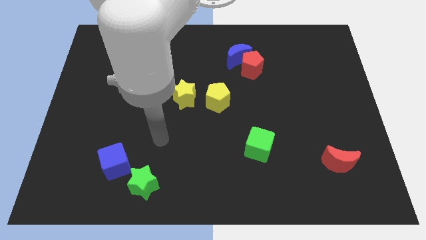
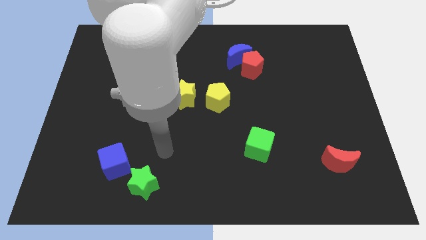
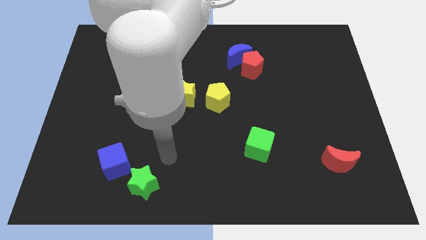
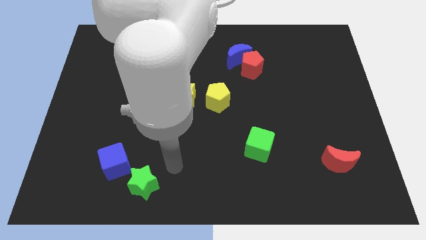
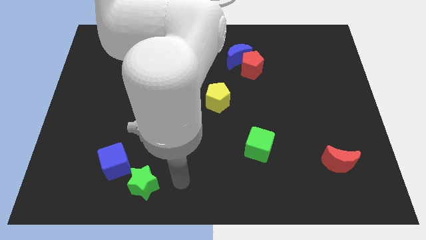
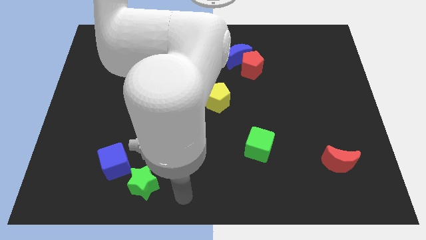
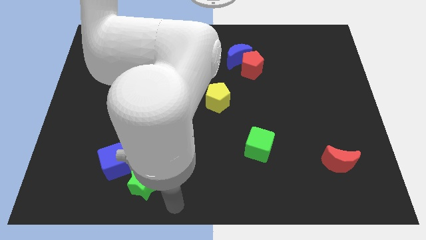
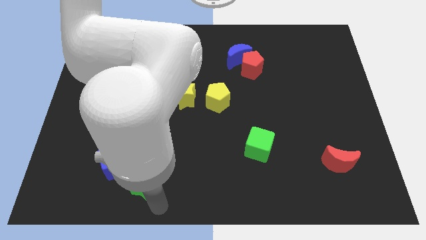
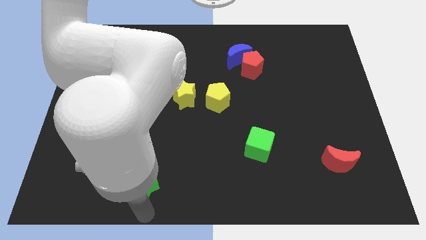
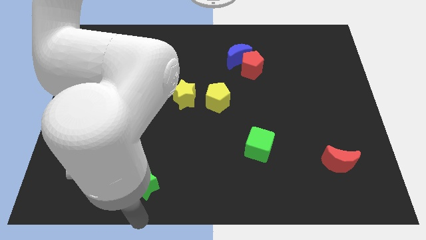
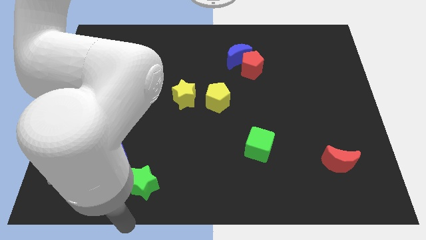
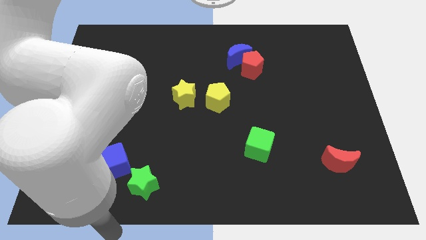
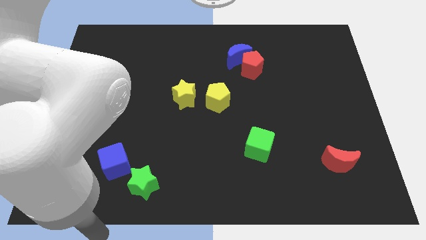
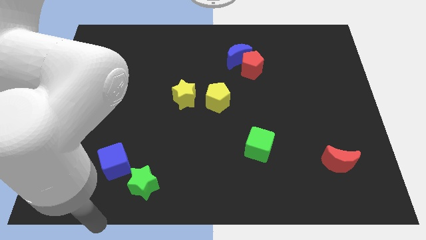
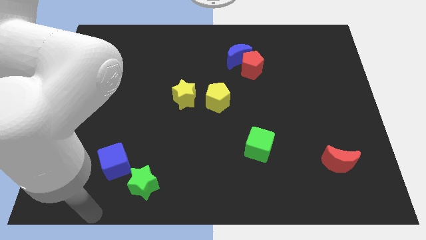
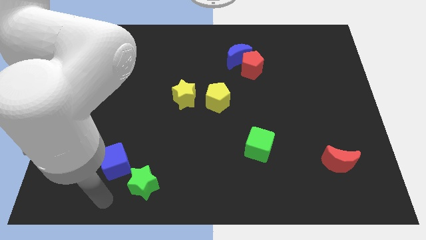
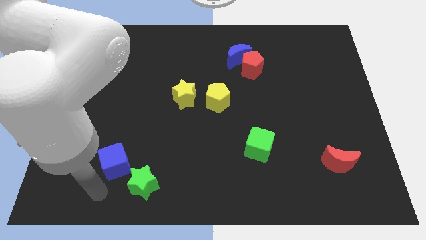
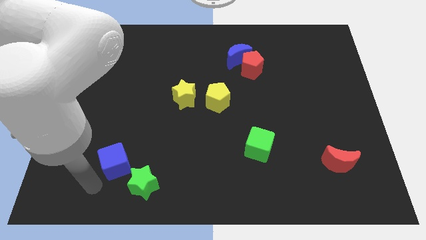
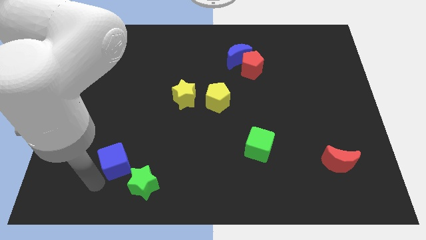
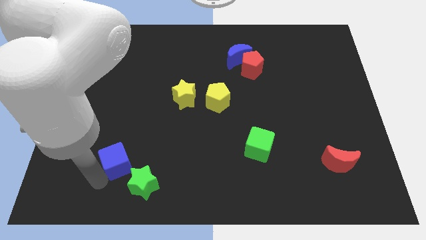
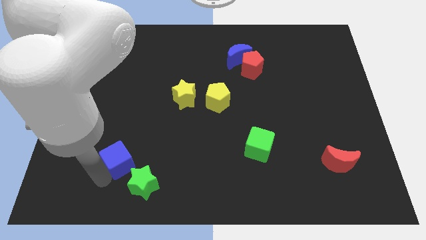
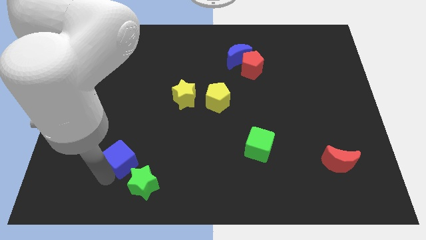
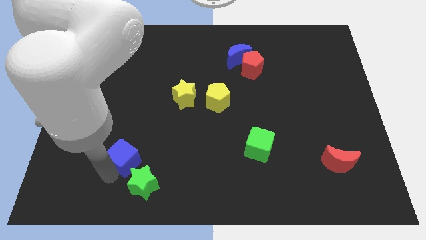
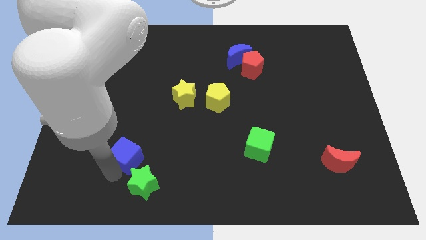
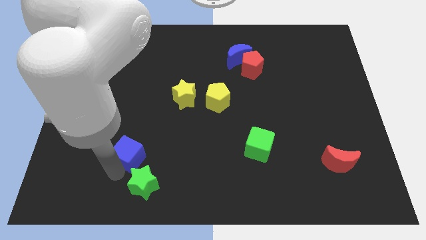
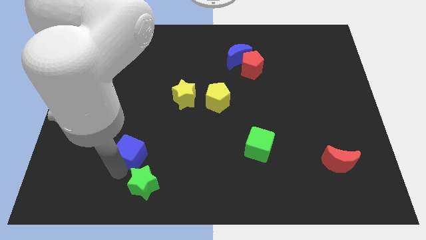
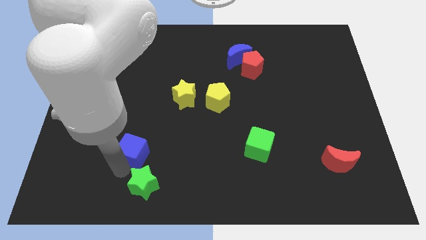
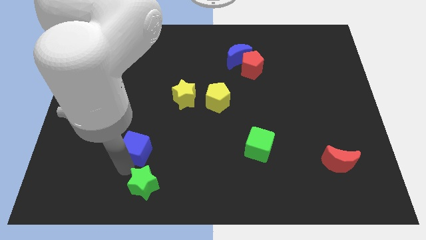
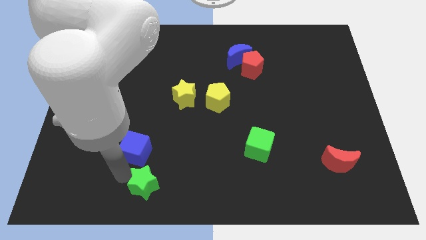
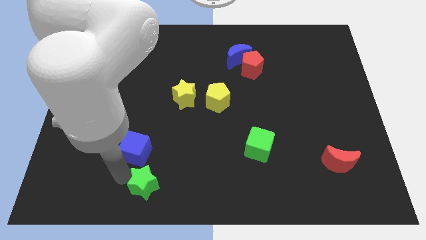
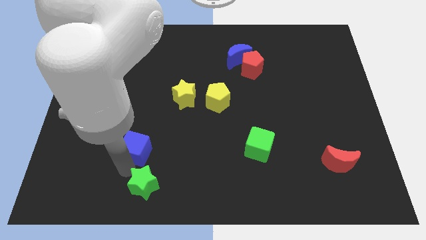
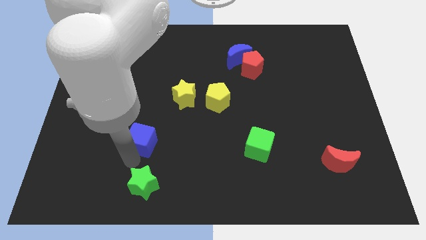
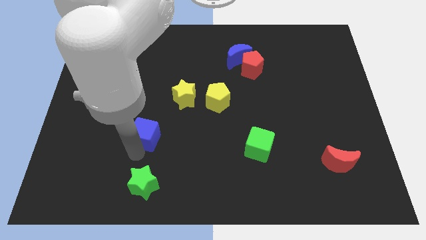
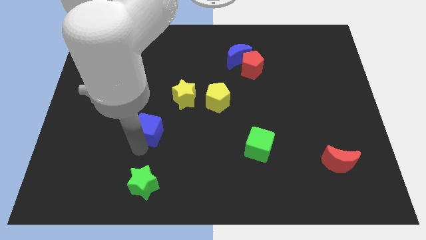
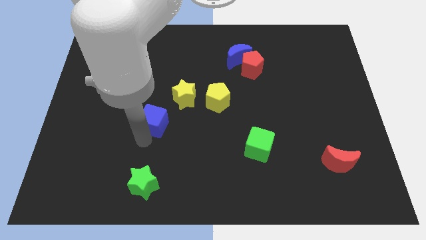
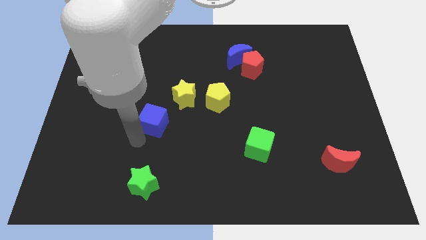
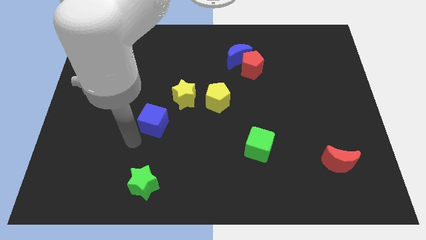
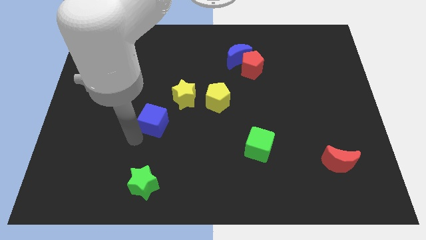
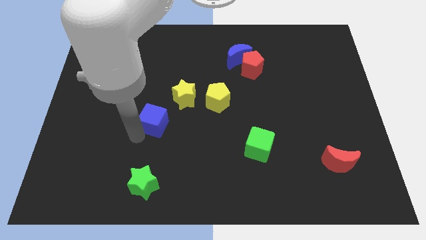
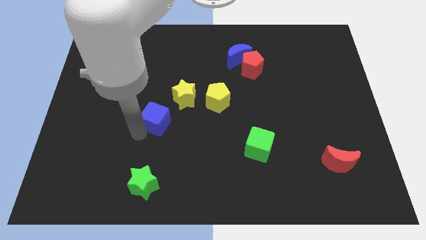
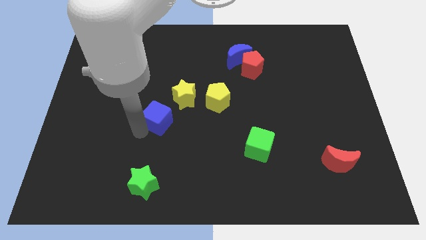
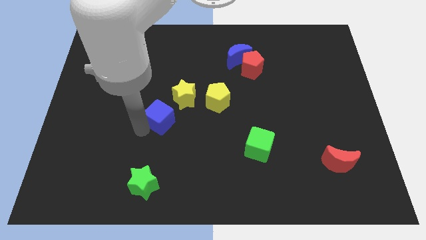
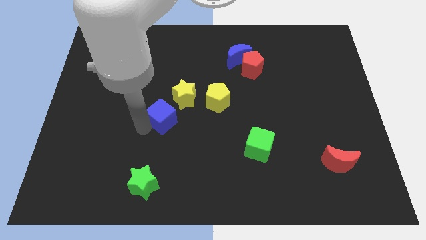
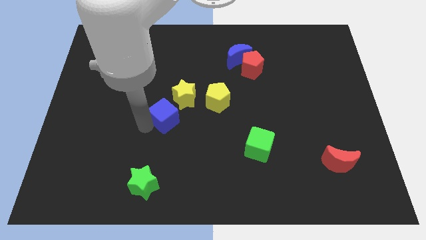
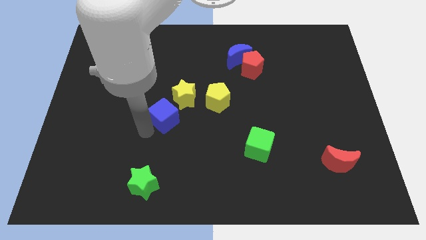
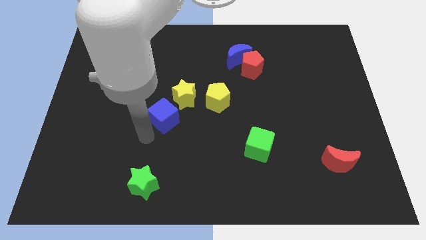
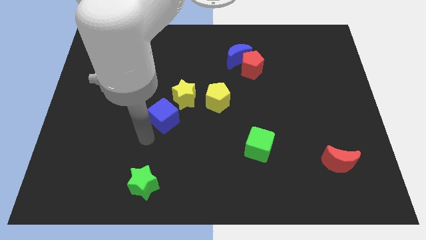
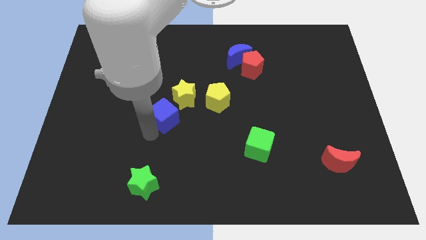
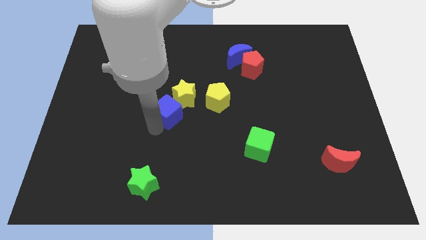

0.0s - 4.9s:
move the blue cube towards the yellow star

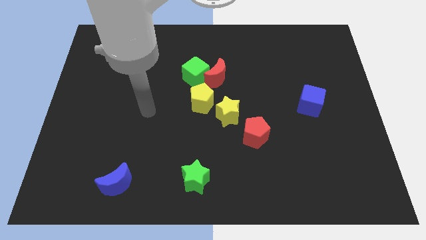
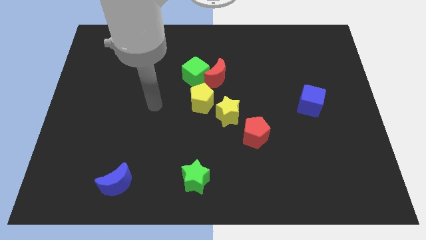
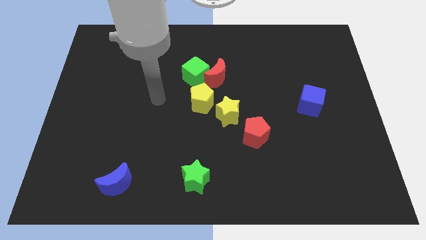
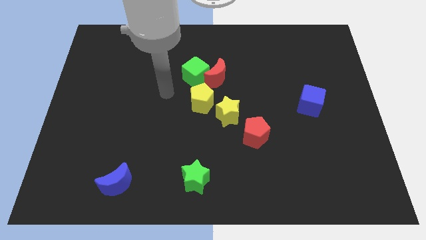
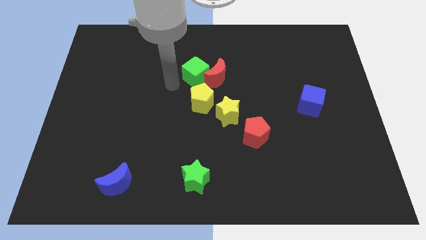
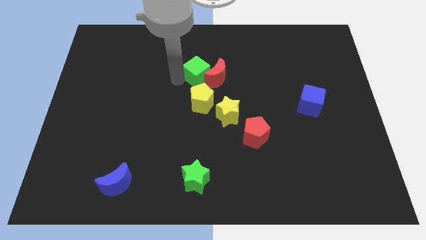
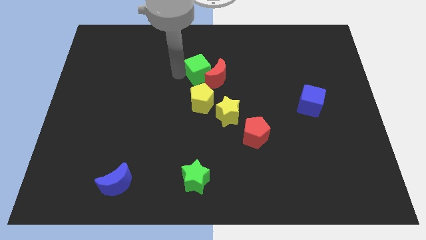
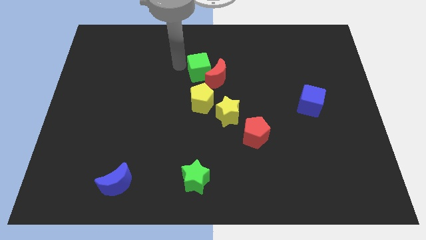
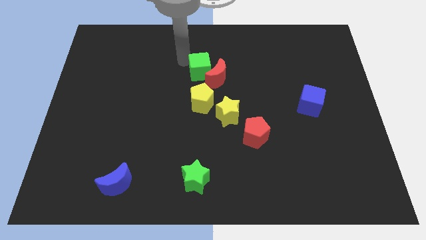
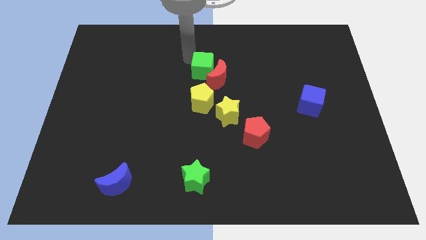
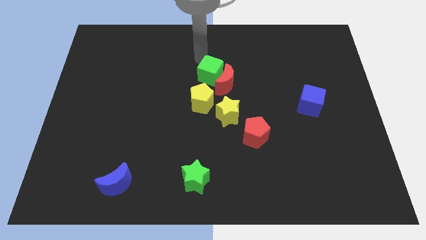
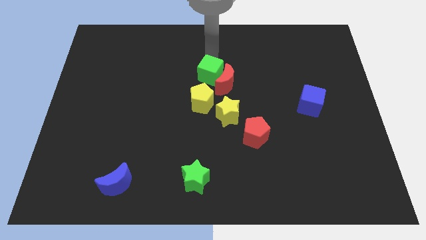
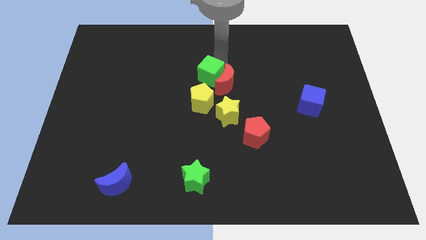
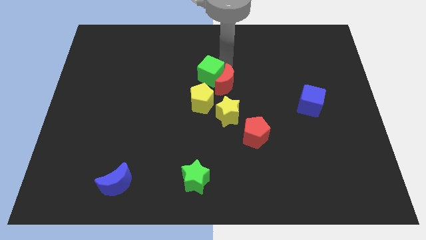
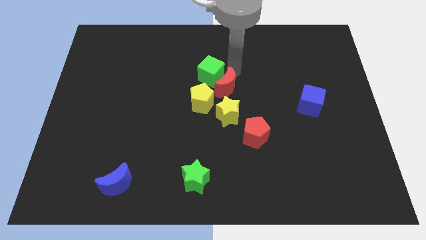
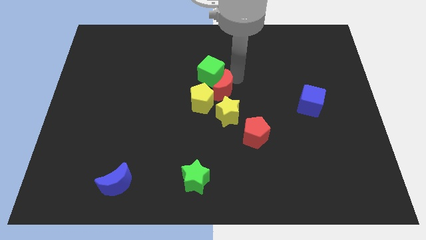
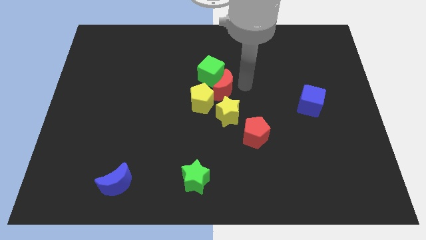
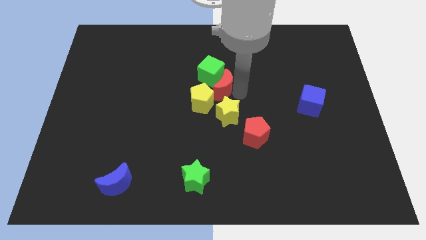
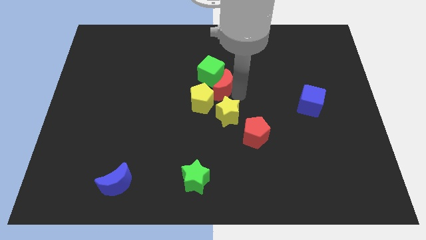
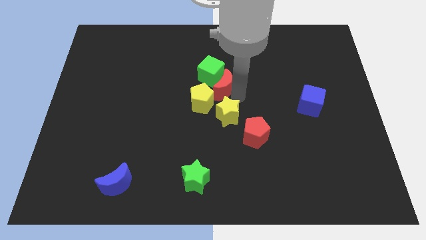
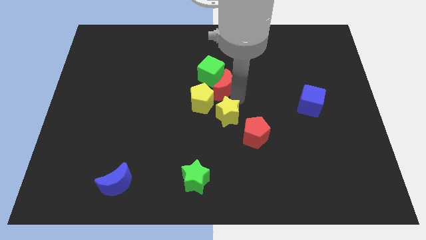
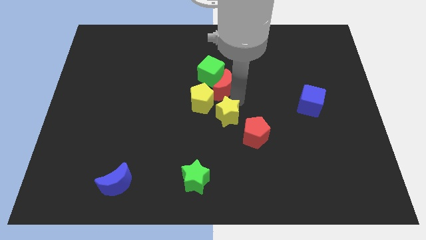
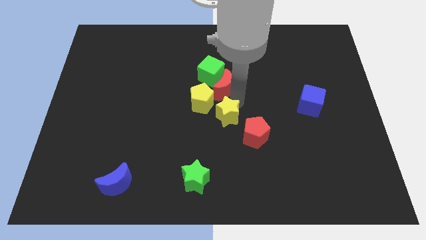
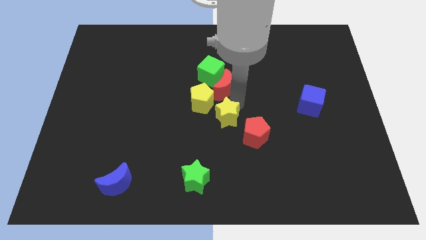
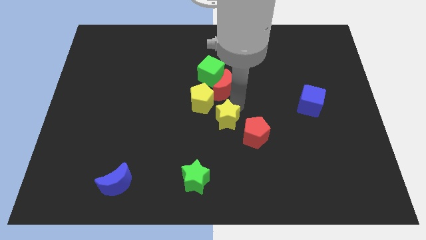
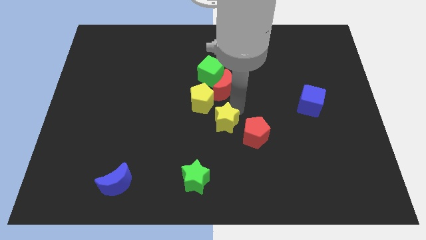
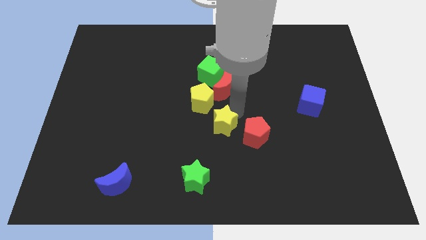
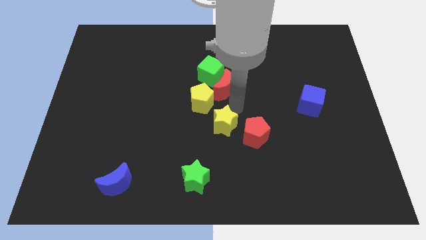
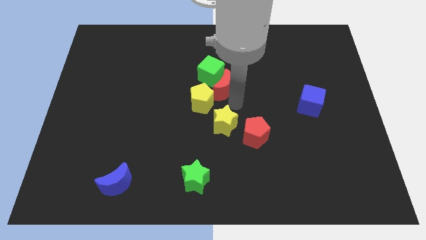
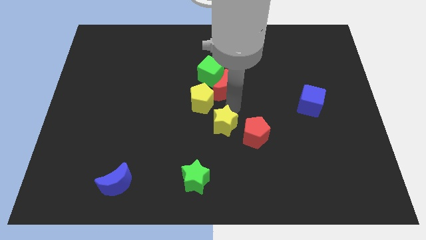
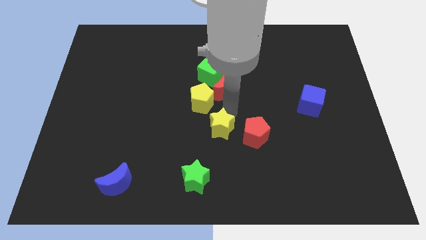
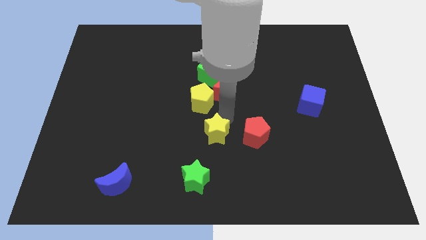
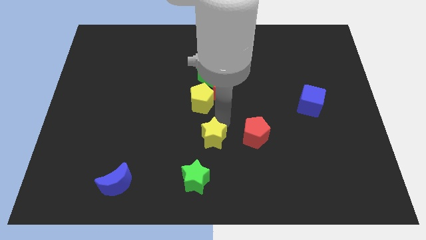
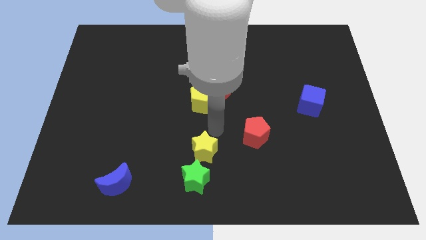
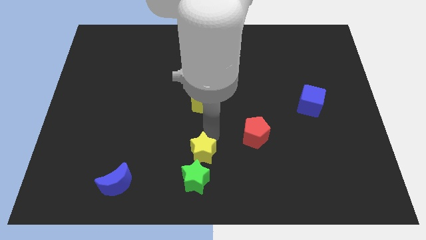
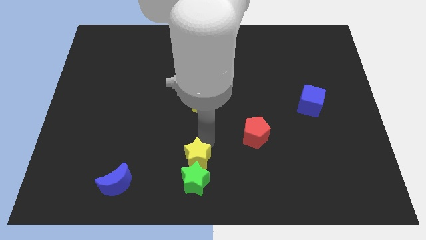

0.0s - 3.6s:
put the yellow star to the green star
